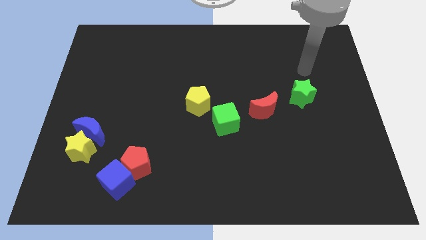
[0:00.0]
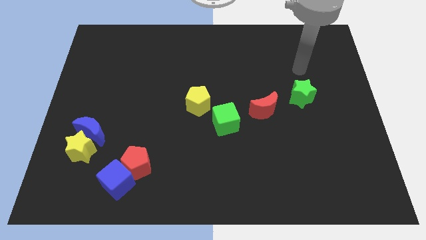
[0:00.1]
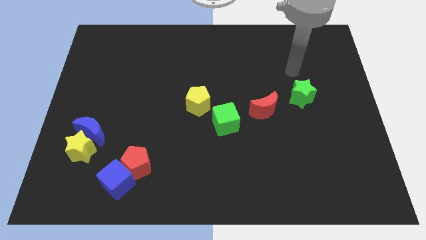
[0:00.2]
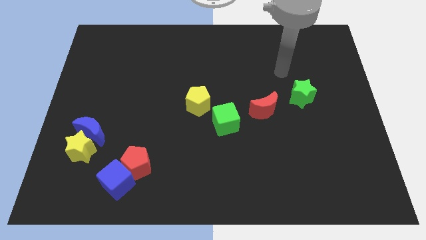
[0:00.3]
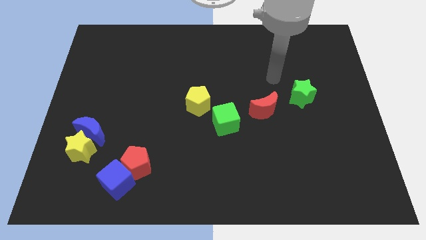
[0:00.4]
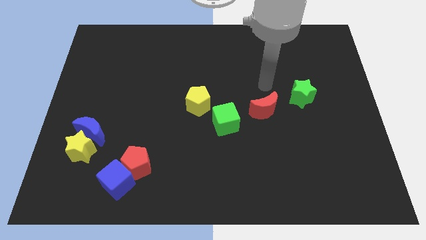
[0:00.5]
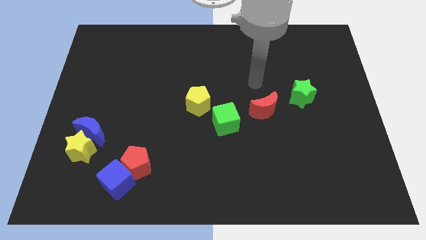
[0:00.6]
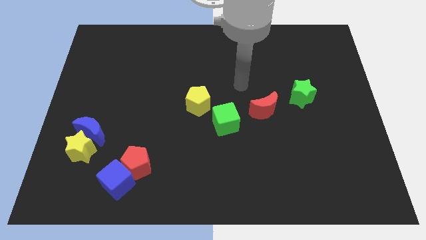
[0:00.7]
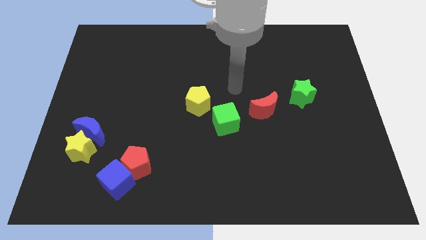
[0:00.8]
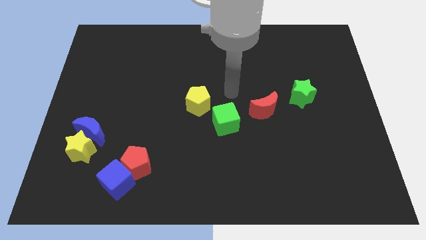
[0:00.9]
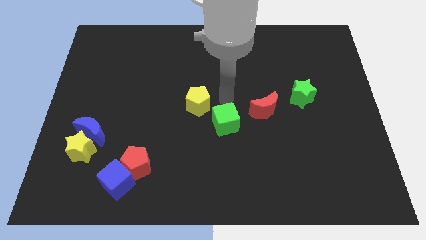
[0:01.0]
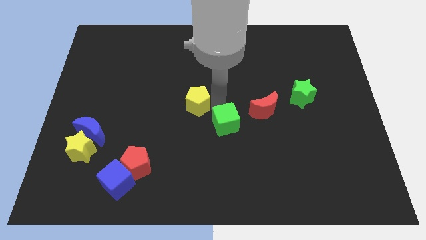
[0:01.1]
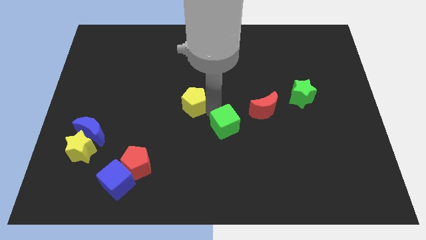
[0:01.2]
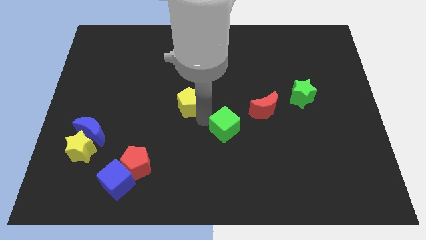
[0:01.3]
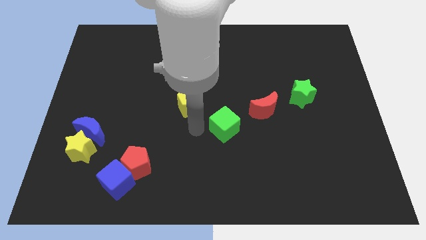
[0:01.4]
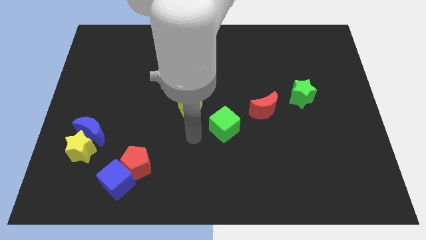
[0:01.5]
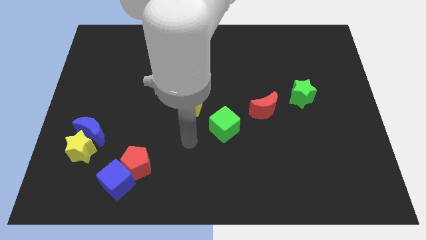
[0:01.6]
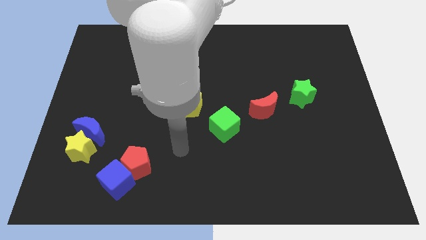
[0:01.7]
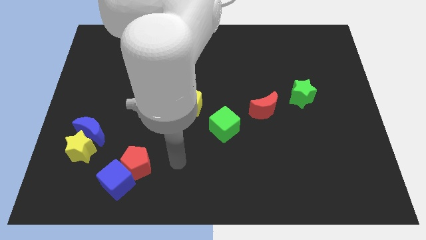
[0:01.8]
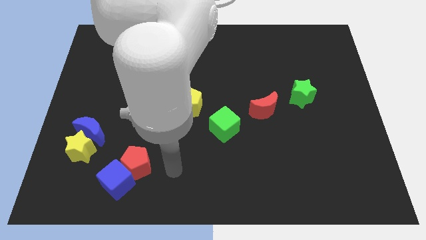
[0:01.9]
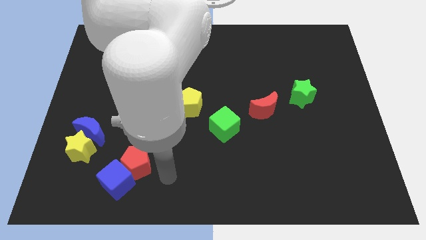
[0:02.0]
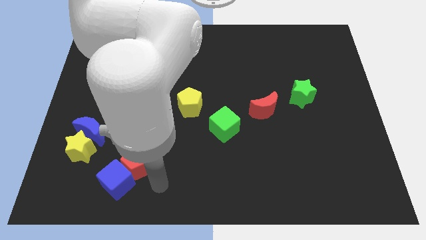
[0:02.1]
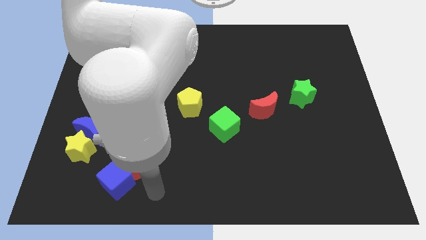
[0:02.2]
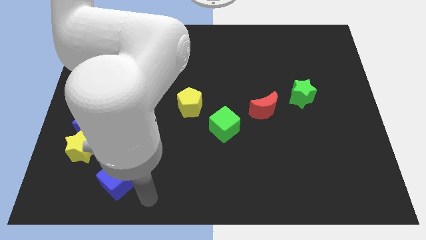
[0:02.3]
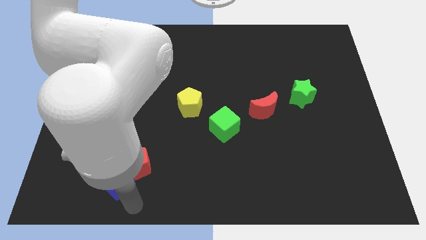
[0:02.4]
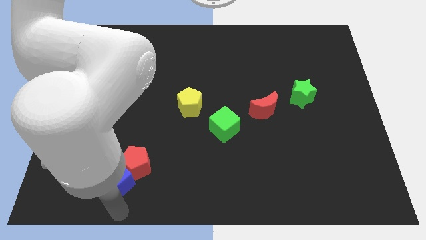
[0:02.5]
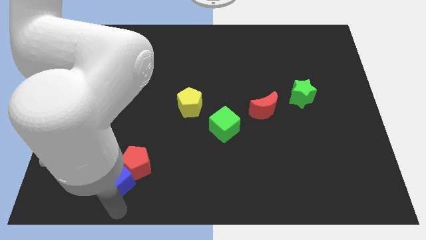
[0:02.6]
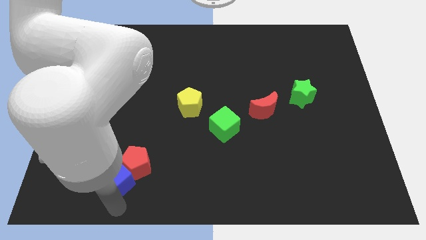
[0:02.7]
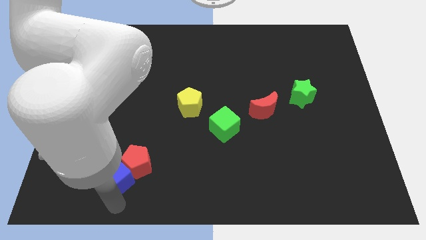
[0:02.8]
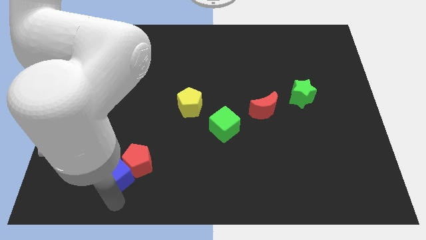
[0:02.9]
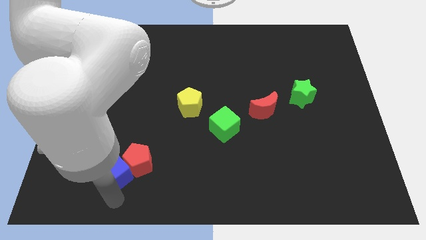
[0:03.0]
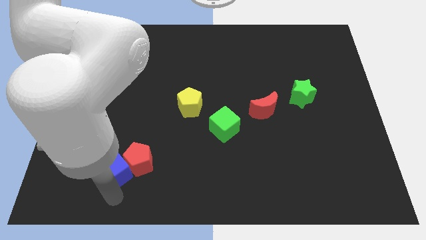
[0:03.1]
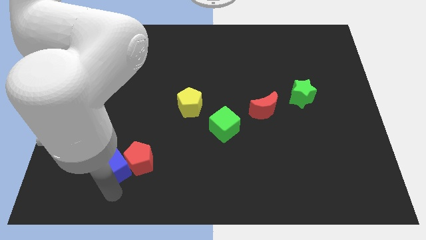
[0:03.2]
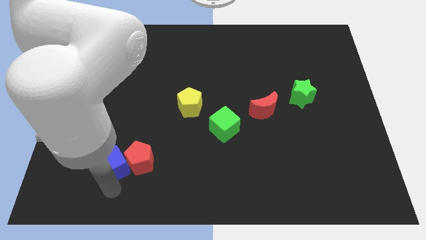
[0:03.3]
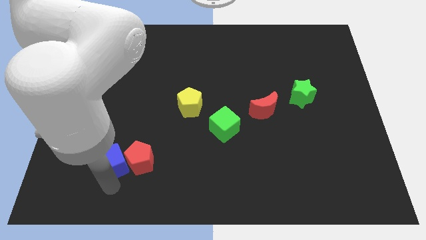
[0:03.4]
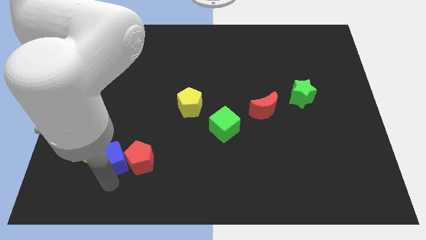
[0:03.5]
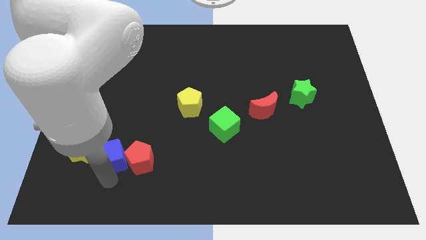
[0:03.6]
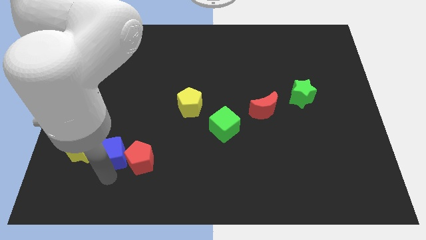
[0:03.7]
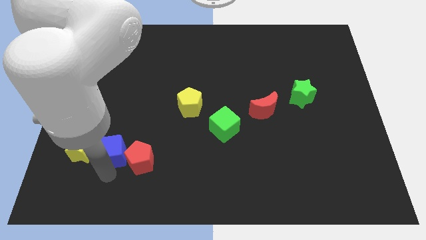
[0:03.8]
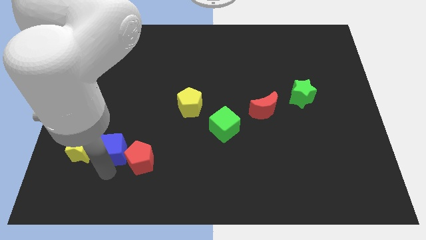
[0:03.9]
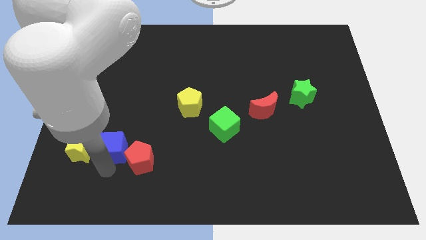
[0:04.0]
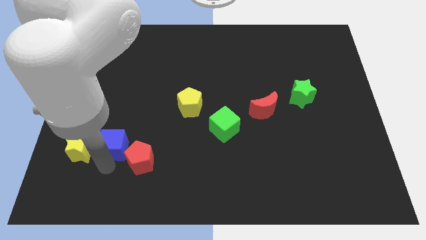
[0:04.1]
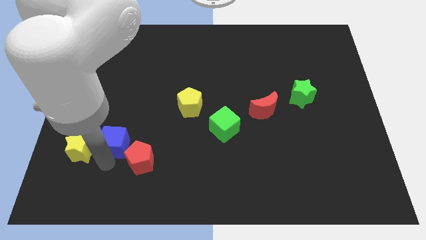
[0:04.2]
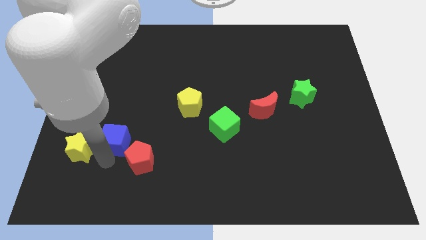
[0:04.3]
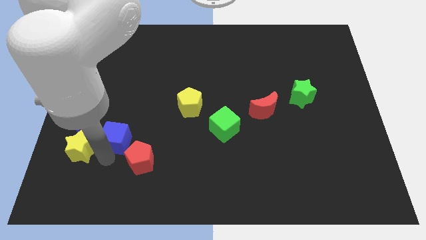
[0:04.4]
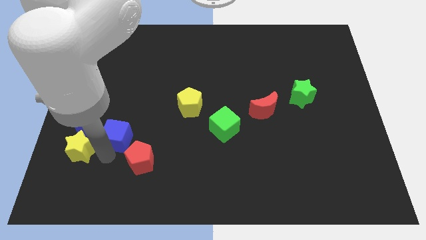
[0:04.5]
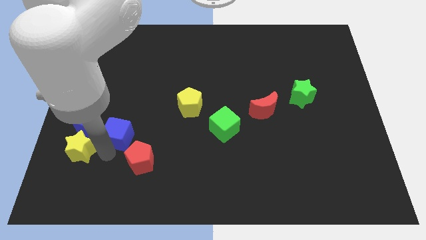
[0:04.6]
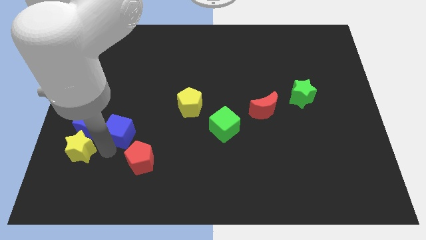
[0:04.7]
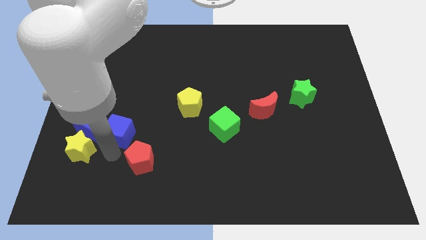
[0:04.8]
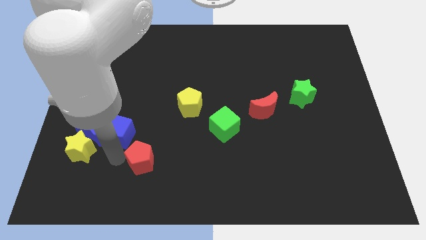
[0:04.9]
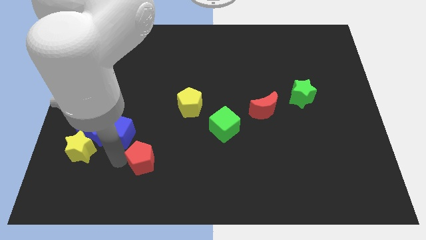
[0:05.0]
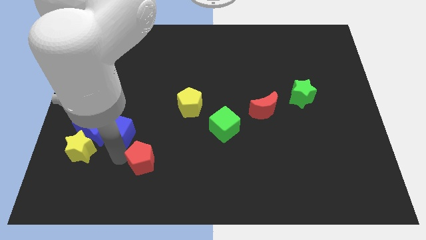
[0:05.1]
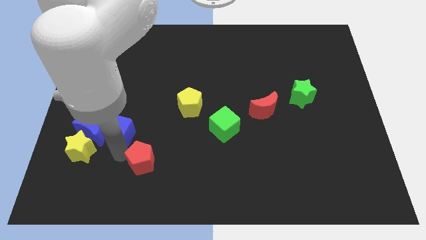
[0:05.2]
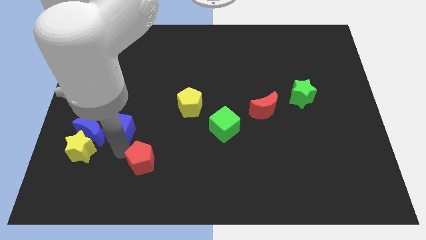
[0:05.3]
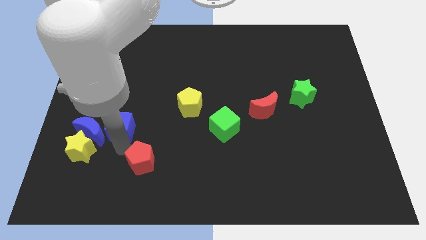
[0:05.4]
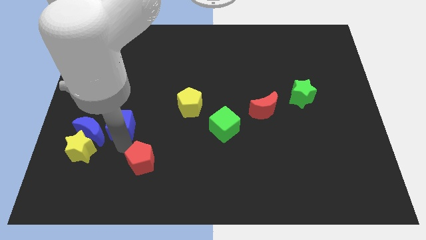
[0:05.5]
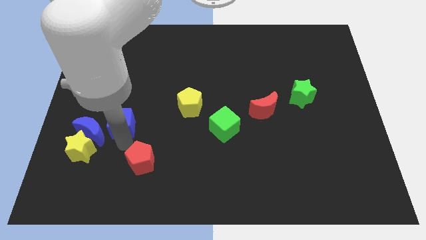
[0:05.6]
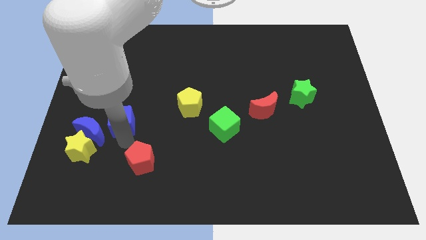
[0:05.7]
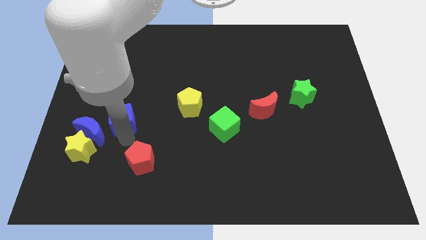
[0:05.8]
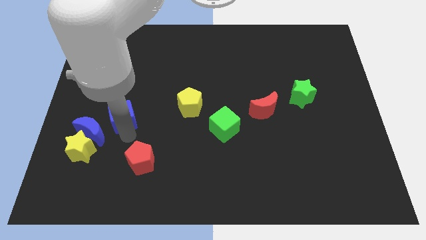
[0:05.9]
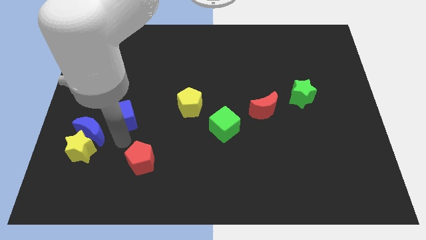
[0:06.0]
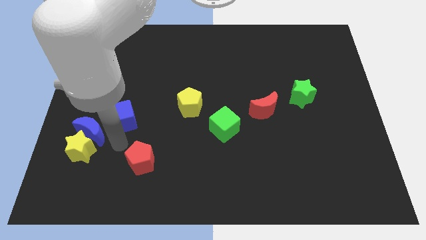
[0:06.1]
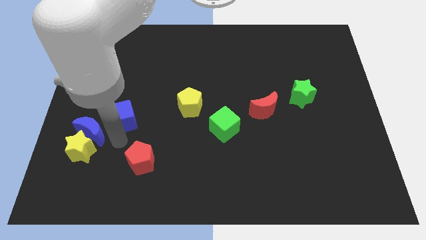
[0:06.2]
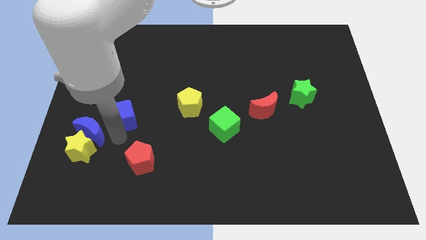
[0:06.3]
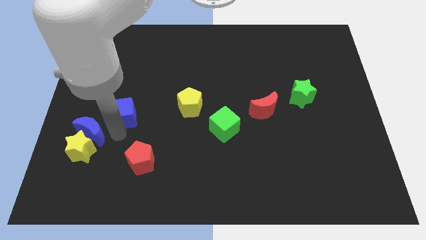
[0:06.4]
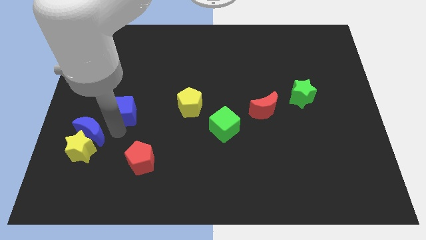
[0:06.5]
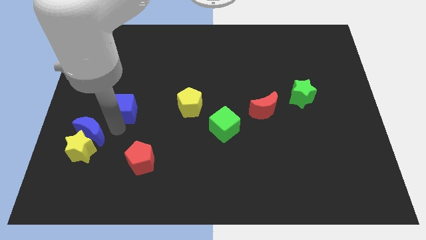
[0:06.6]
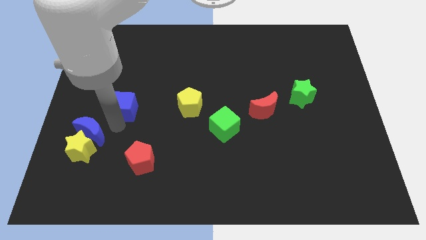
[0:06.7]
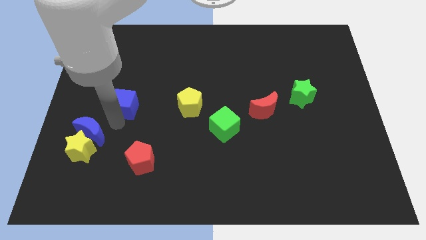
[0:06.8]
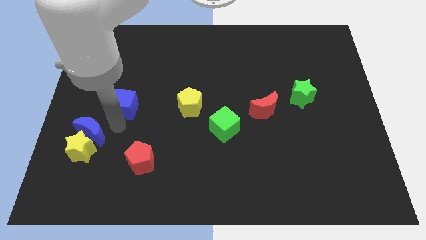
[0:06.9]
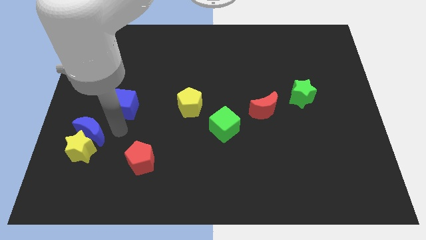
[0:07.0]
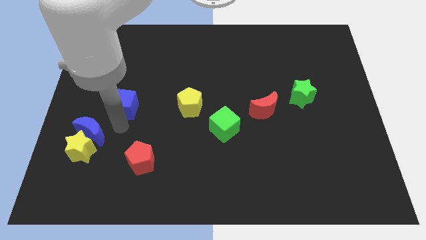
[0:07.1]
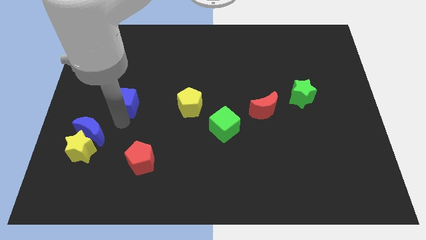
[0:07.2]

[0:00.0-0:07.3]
move the blue cube upwards

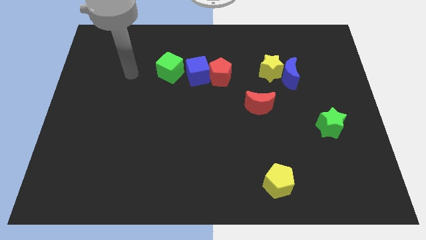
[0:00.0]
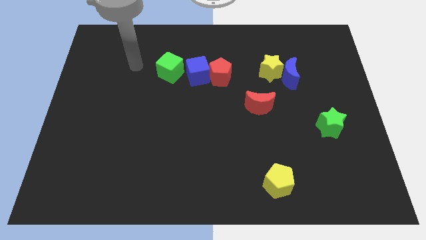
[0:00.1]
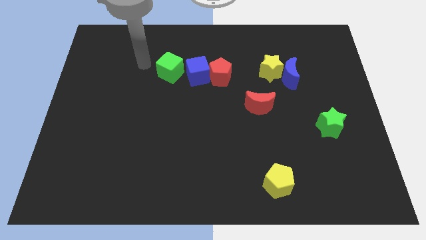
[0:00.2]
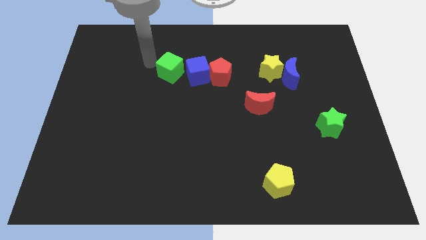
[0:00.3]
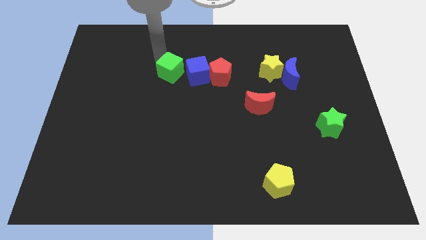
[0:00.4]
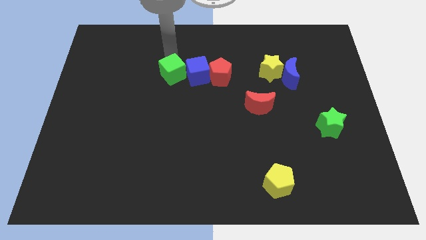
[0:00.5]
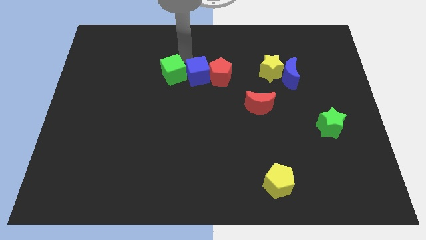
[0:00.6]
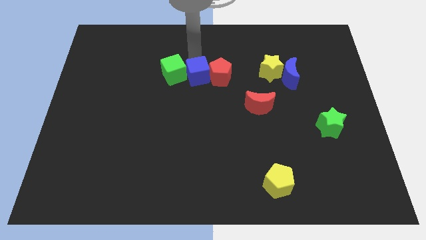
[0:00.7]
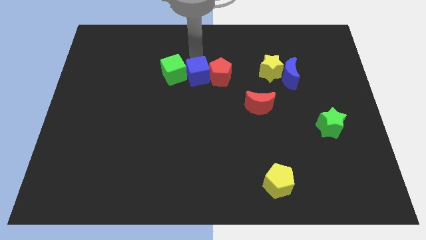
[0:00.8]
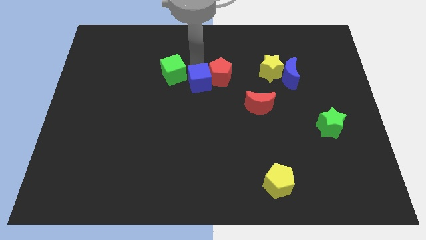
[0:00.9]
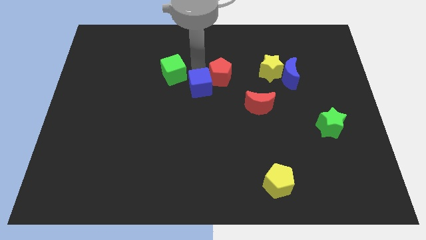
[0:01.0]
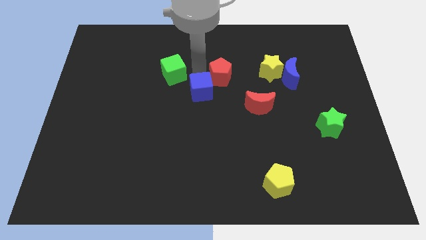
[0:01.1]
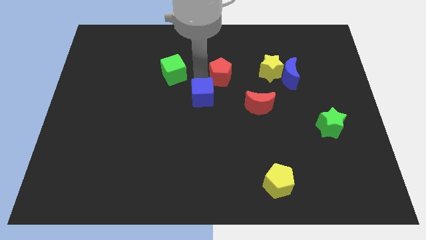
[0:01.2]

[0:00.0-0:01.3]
push the blue cube a little down
